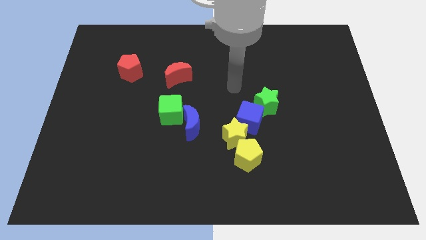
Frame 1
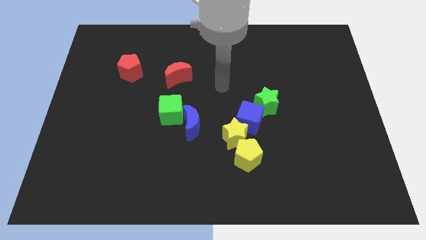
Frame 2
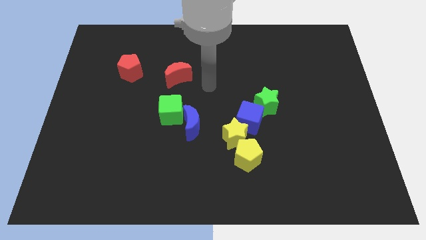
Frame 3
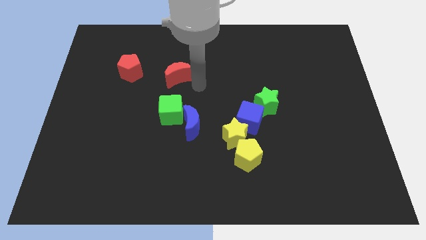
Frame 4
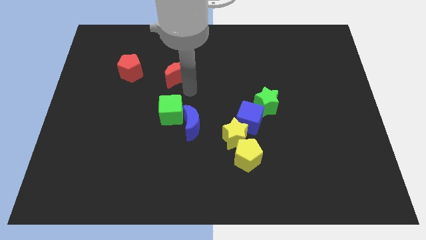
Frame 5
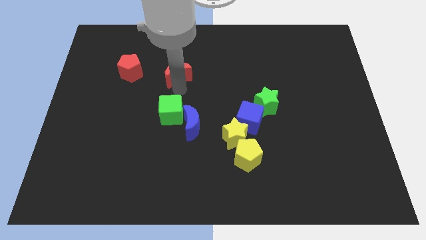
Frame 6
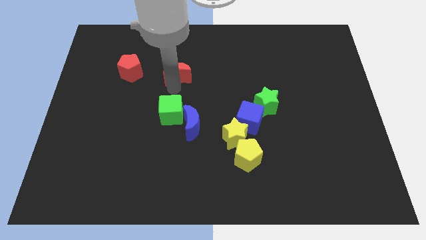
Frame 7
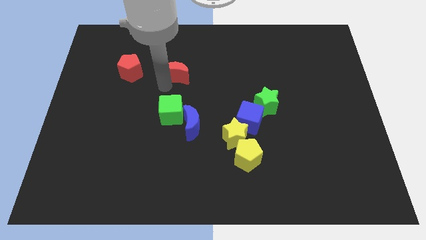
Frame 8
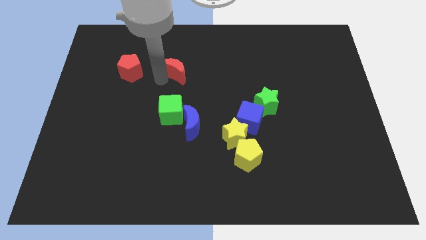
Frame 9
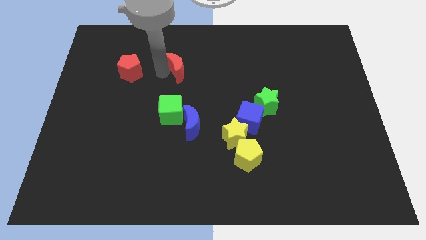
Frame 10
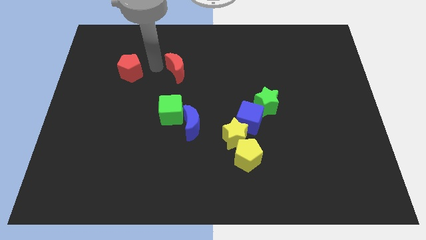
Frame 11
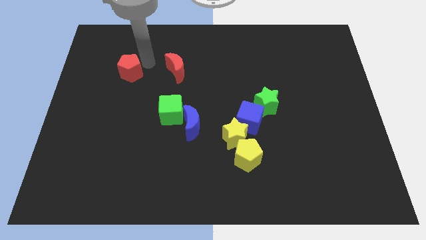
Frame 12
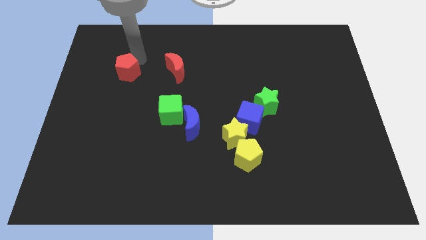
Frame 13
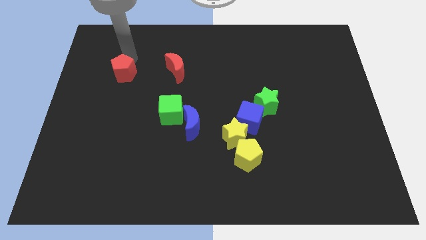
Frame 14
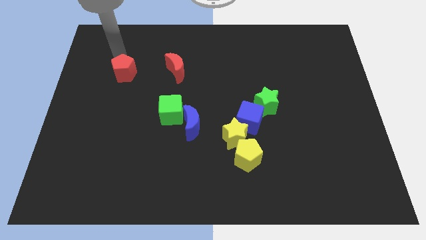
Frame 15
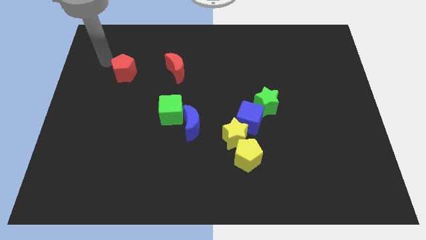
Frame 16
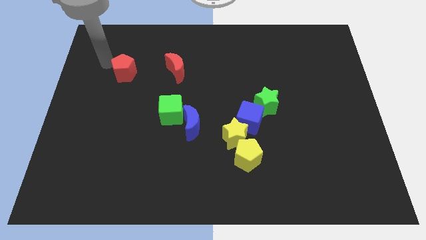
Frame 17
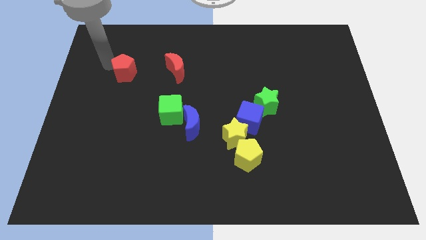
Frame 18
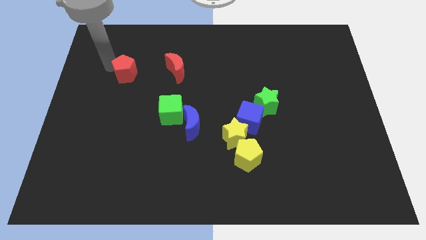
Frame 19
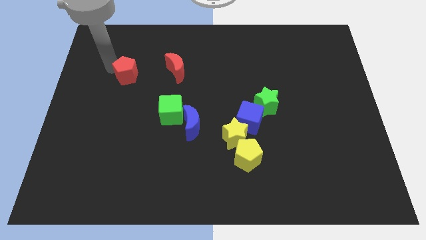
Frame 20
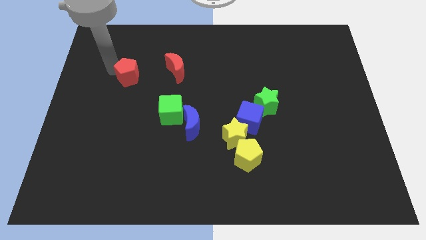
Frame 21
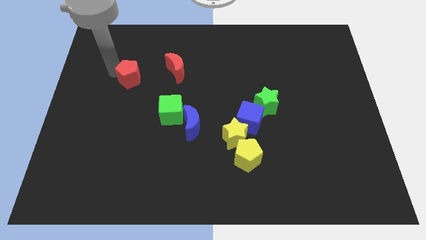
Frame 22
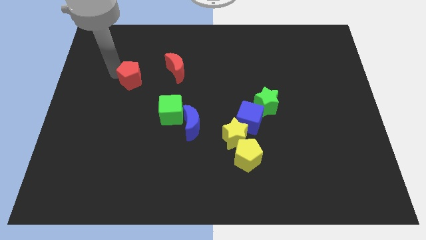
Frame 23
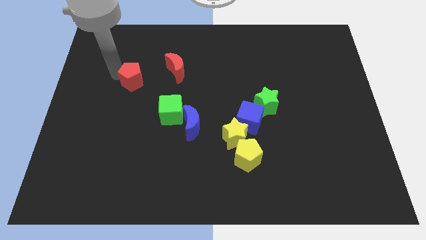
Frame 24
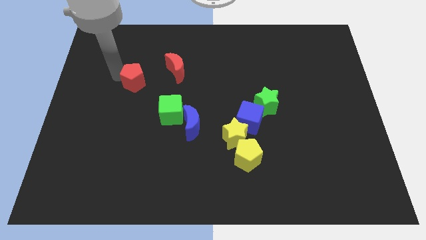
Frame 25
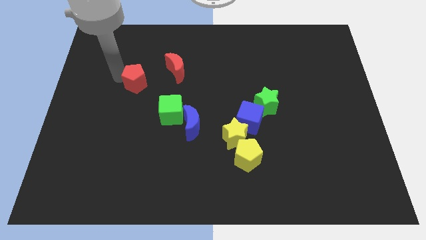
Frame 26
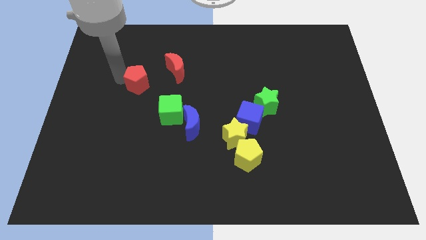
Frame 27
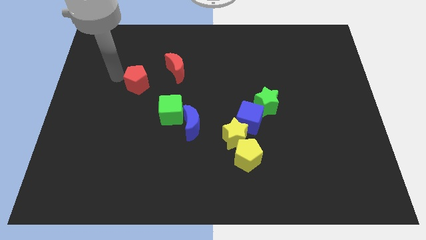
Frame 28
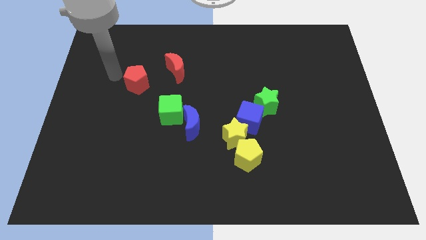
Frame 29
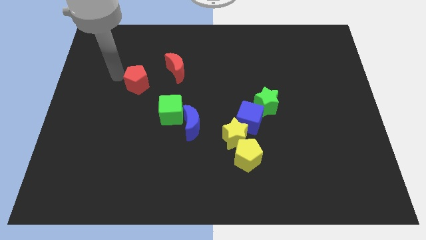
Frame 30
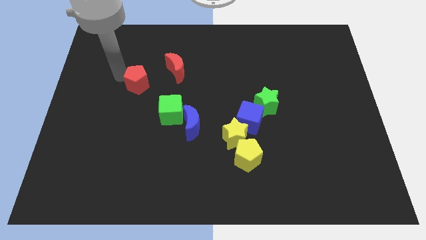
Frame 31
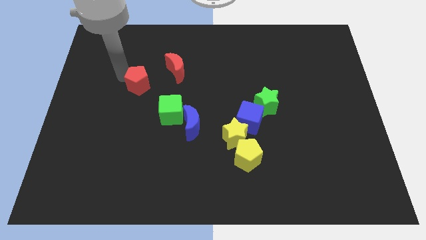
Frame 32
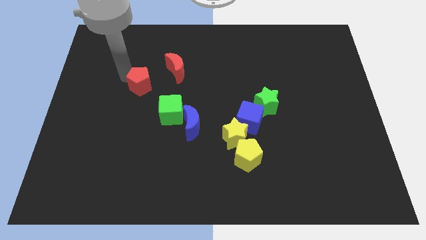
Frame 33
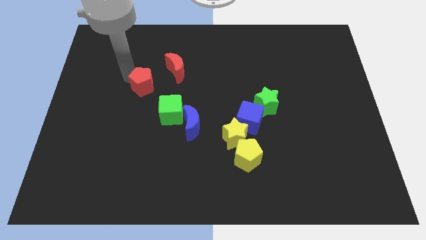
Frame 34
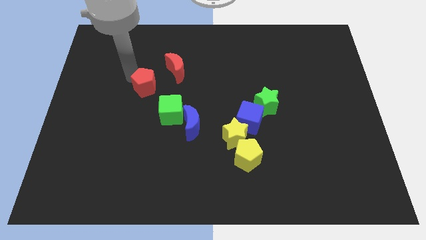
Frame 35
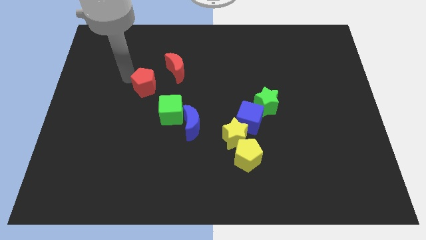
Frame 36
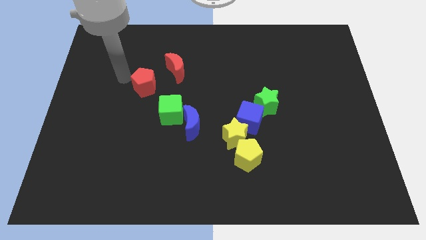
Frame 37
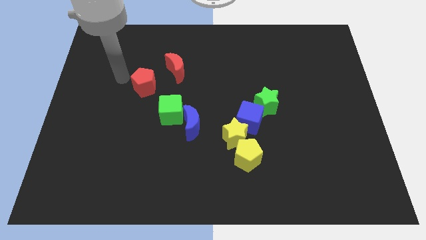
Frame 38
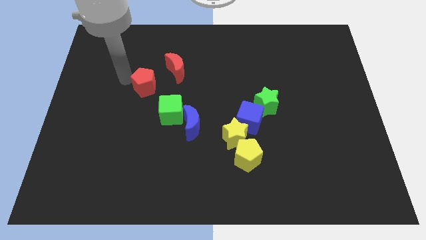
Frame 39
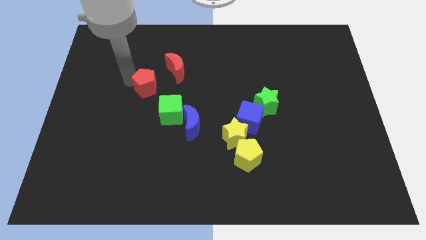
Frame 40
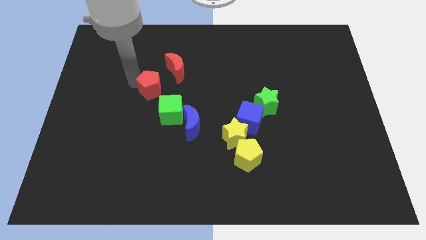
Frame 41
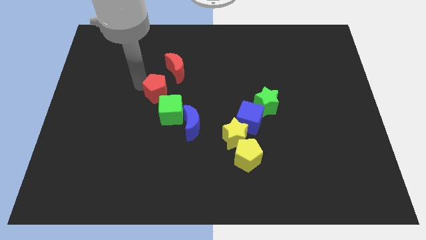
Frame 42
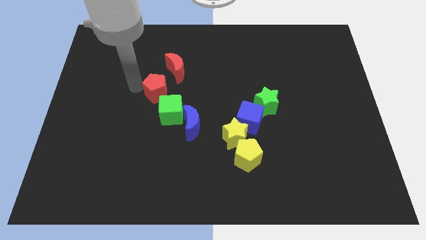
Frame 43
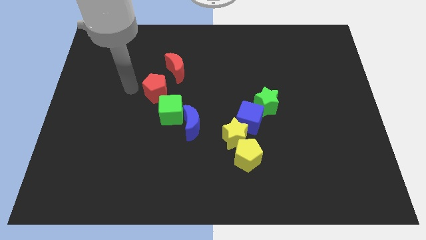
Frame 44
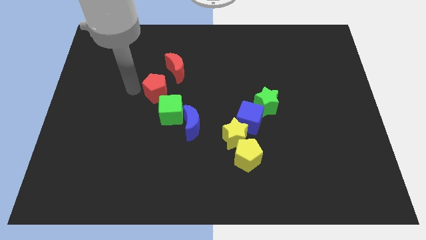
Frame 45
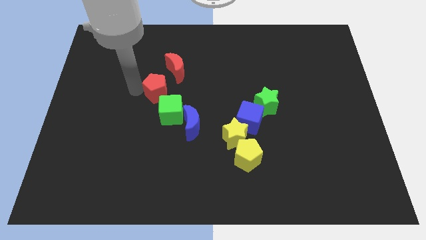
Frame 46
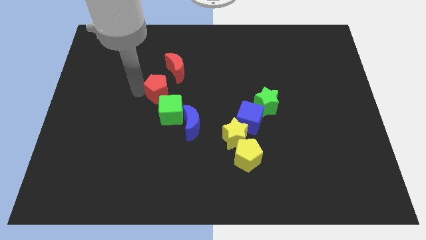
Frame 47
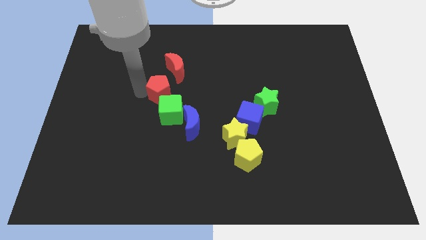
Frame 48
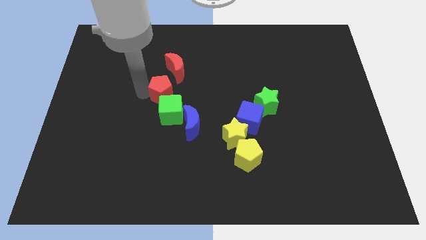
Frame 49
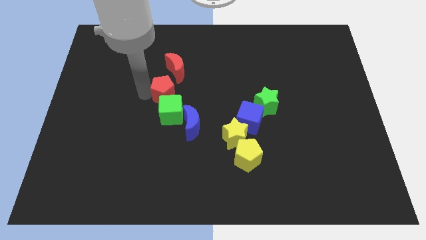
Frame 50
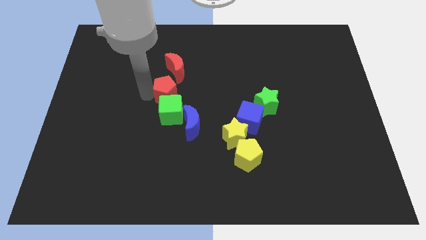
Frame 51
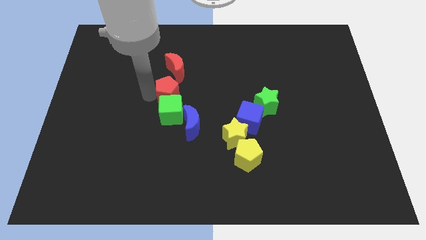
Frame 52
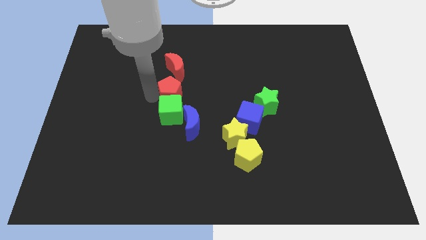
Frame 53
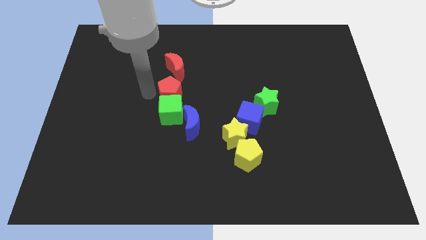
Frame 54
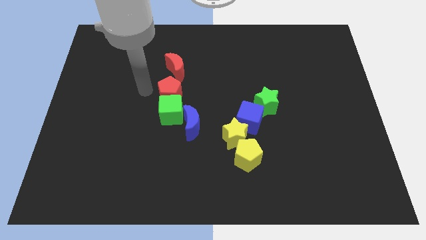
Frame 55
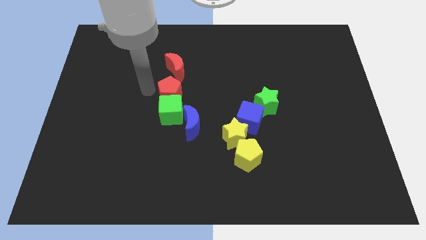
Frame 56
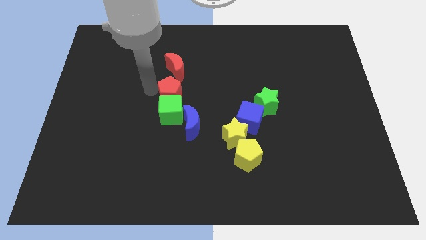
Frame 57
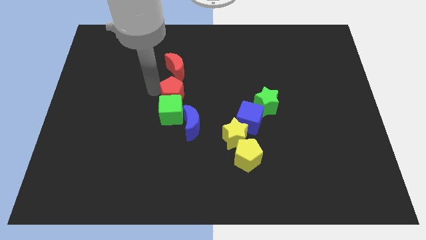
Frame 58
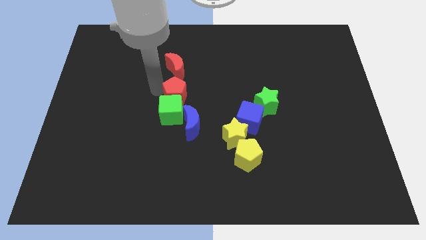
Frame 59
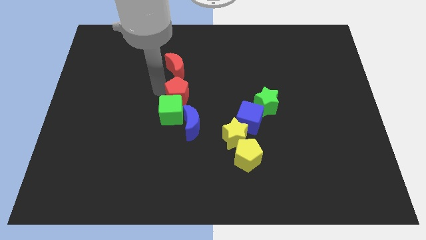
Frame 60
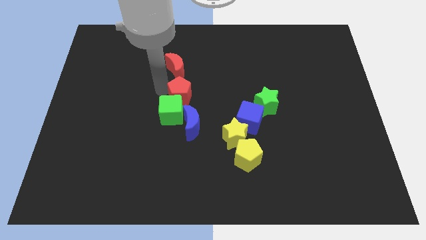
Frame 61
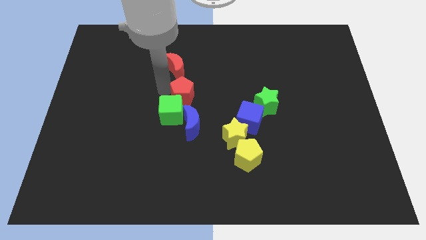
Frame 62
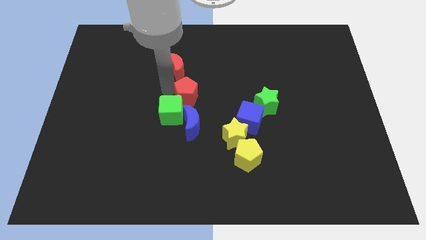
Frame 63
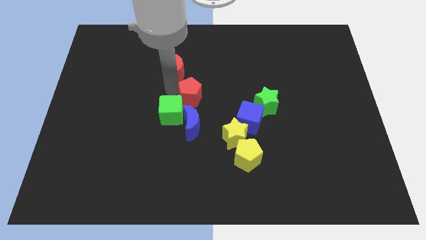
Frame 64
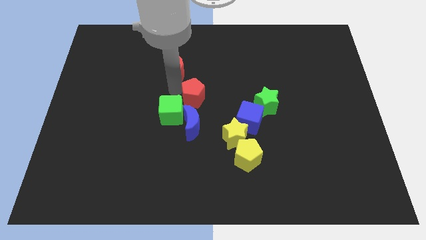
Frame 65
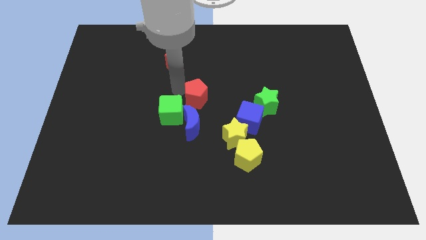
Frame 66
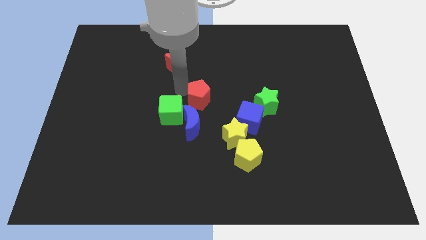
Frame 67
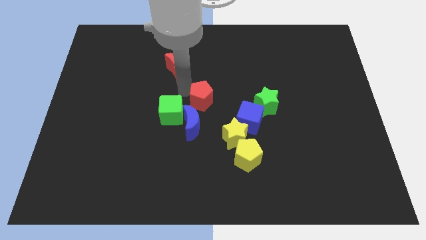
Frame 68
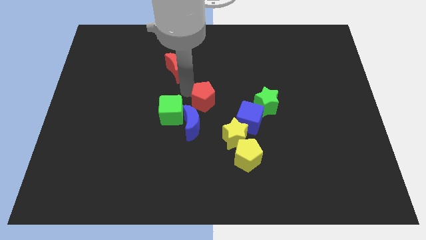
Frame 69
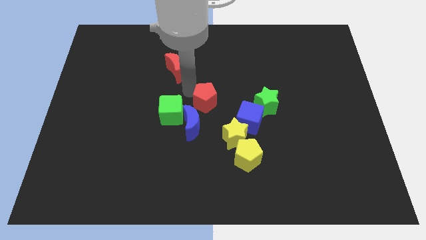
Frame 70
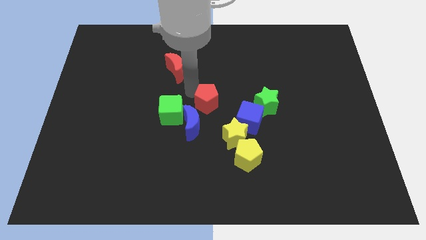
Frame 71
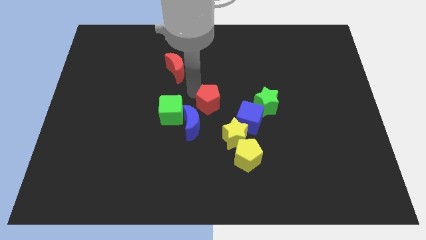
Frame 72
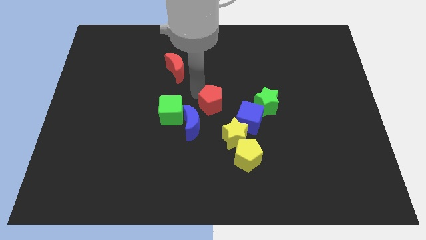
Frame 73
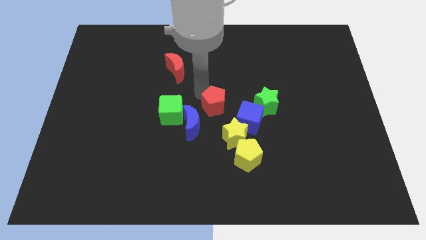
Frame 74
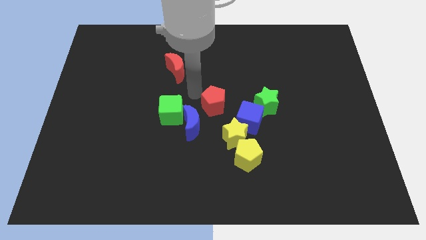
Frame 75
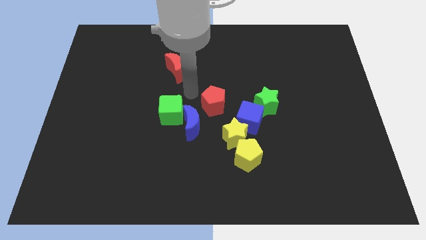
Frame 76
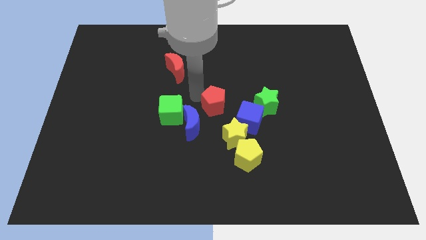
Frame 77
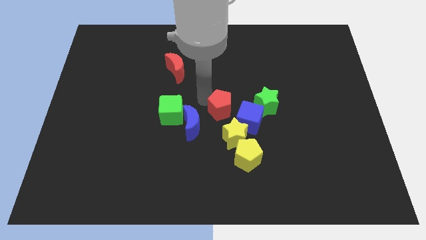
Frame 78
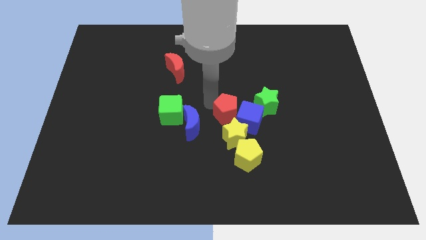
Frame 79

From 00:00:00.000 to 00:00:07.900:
put the red pentagon to the top of the yellow pentagon
